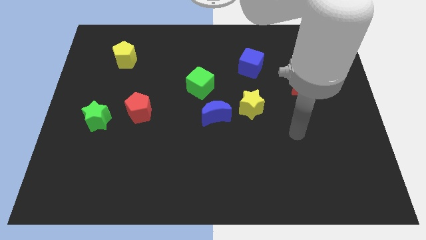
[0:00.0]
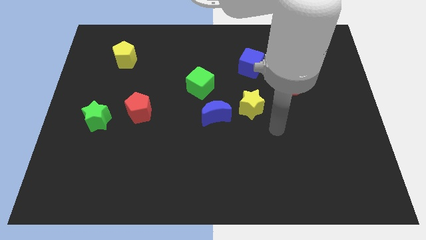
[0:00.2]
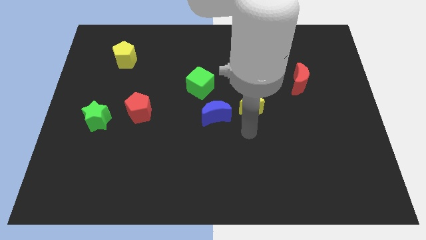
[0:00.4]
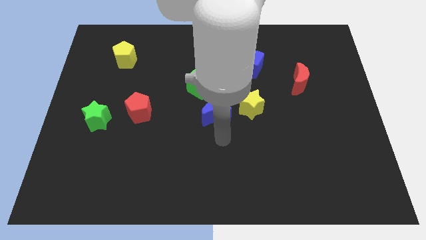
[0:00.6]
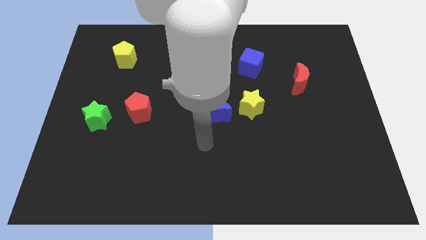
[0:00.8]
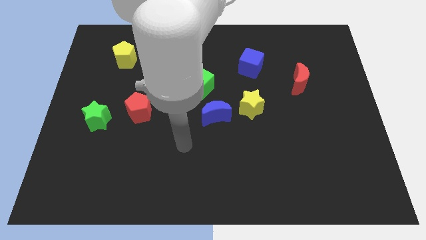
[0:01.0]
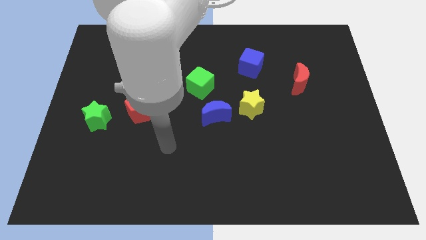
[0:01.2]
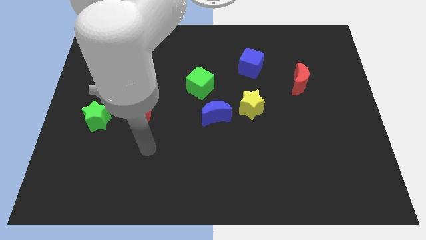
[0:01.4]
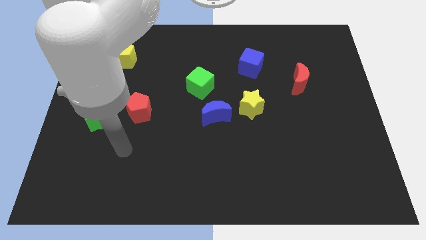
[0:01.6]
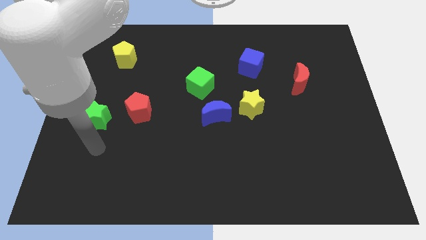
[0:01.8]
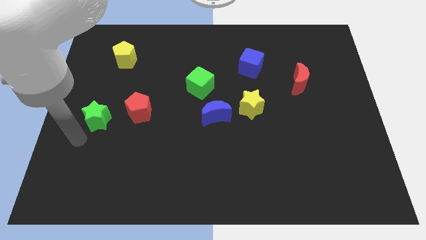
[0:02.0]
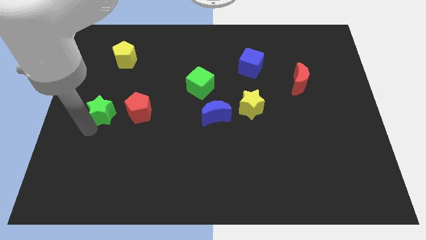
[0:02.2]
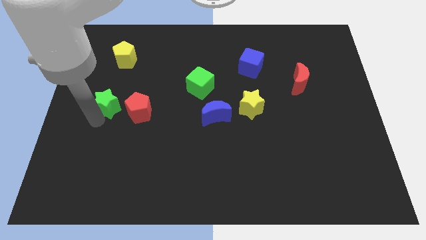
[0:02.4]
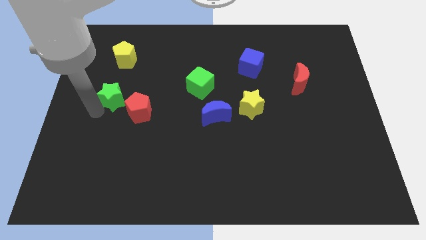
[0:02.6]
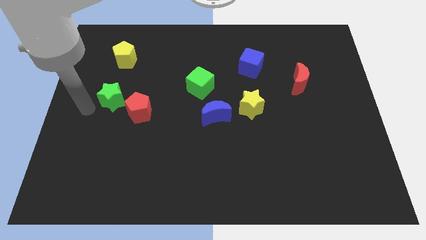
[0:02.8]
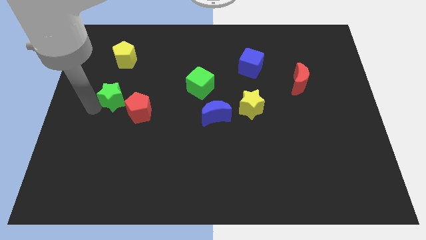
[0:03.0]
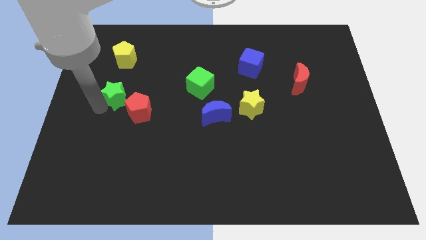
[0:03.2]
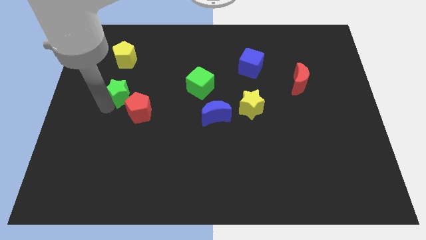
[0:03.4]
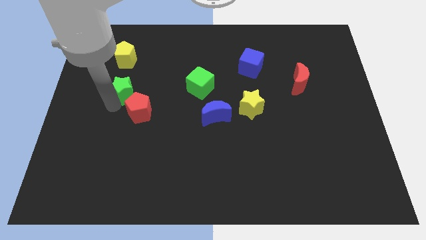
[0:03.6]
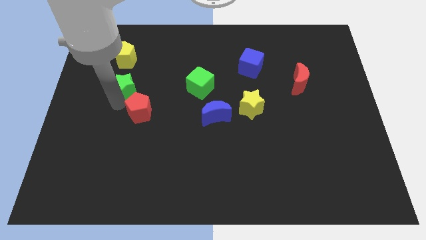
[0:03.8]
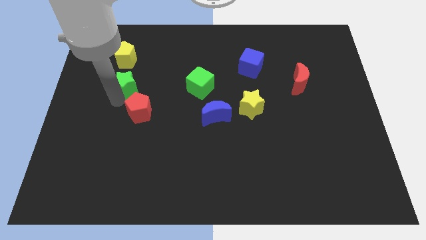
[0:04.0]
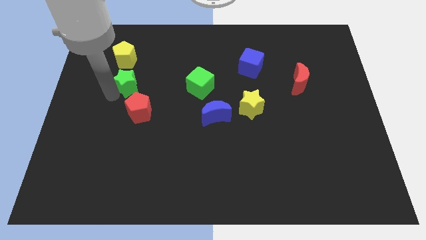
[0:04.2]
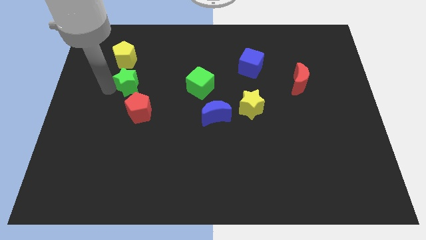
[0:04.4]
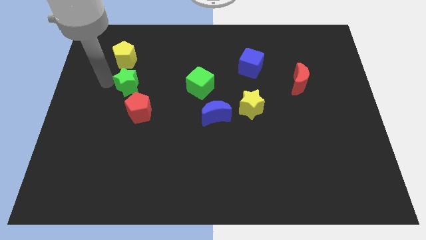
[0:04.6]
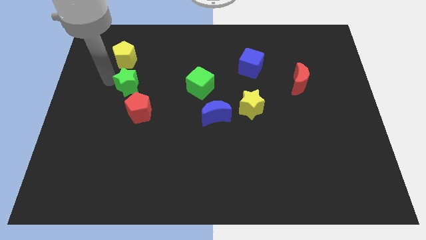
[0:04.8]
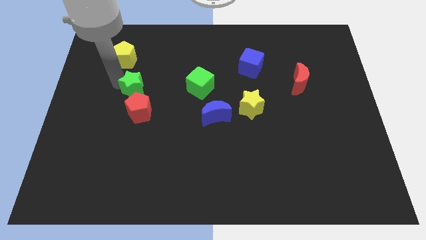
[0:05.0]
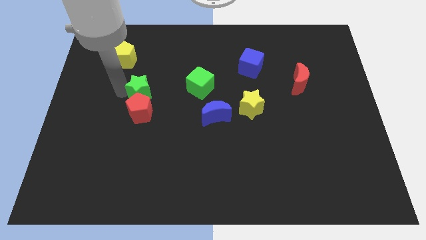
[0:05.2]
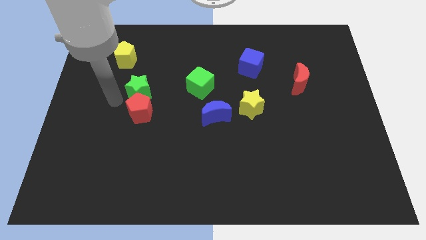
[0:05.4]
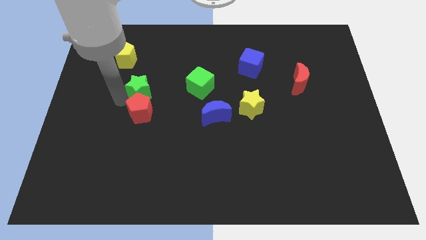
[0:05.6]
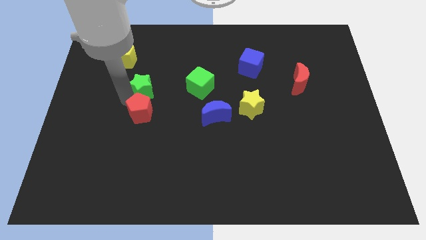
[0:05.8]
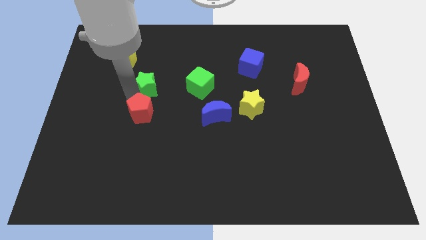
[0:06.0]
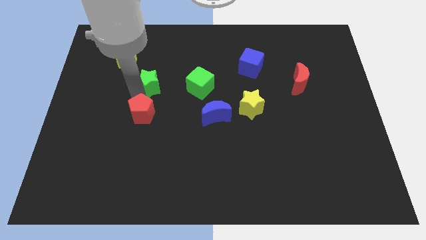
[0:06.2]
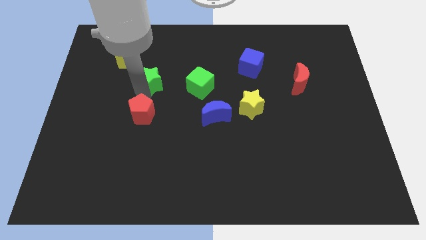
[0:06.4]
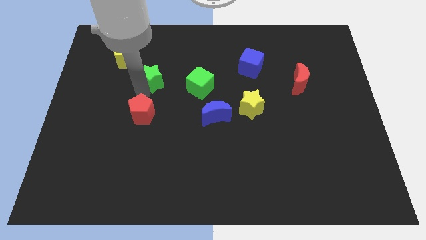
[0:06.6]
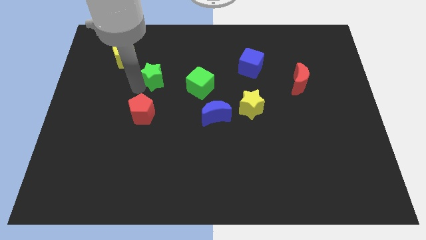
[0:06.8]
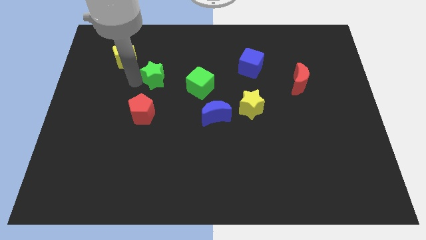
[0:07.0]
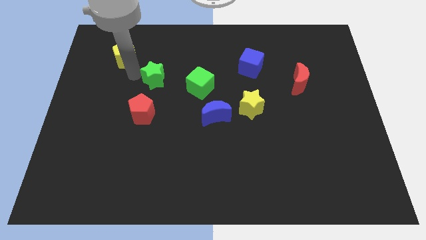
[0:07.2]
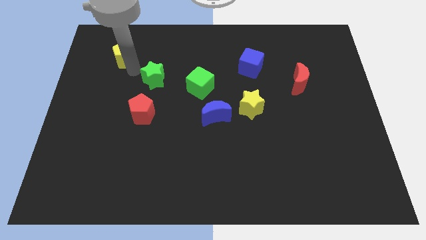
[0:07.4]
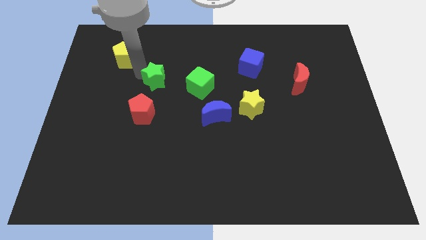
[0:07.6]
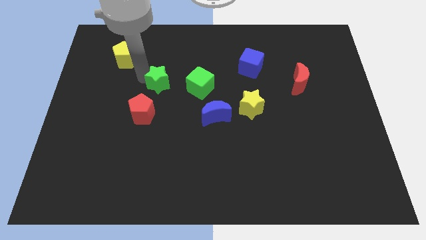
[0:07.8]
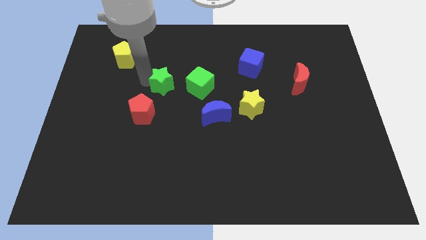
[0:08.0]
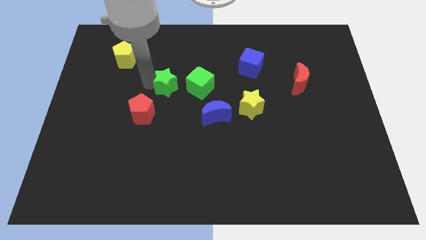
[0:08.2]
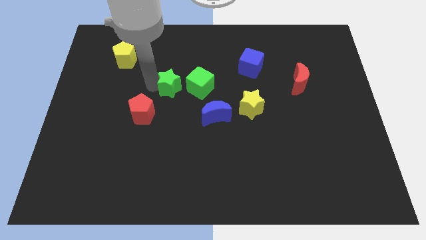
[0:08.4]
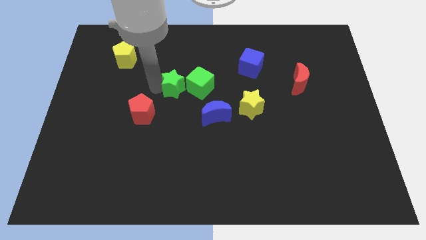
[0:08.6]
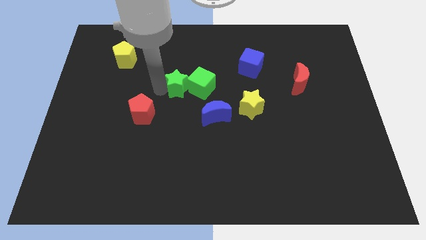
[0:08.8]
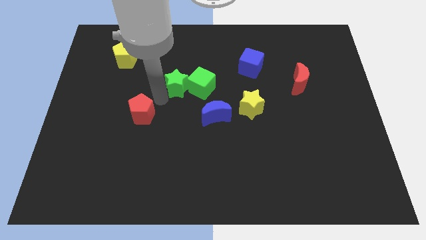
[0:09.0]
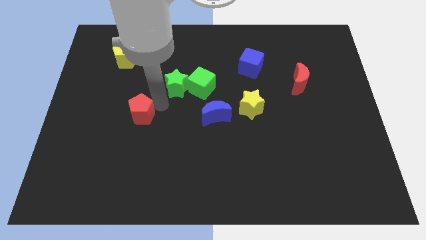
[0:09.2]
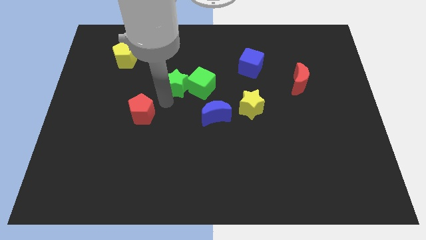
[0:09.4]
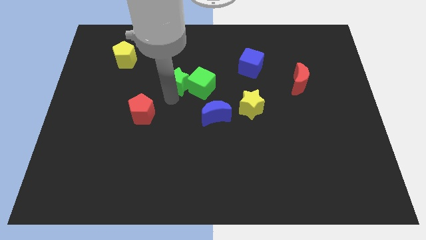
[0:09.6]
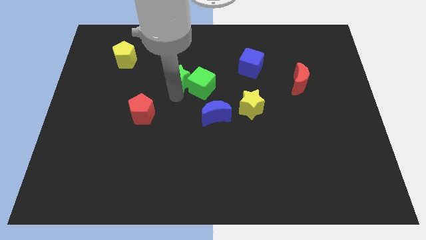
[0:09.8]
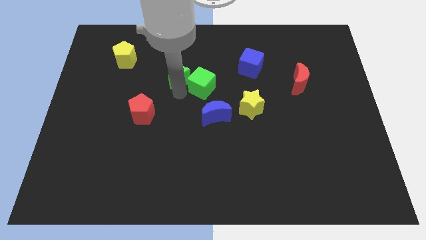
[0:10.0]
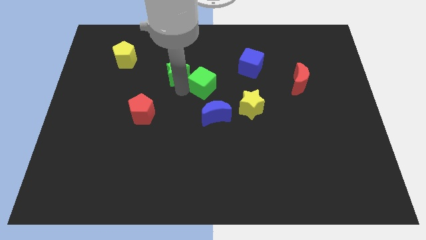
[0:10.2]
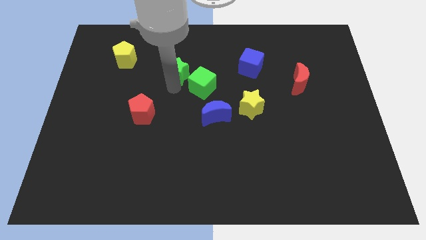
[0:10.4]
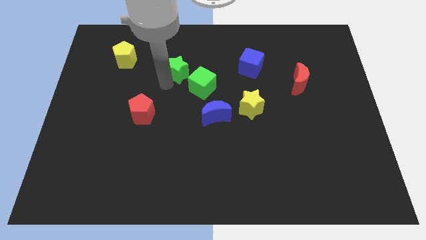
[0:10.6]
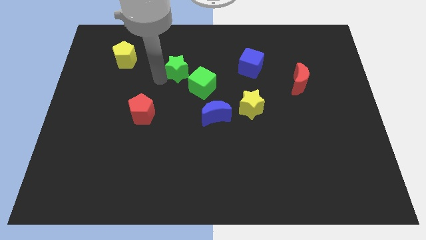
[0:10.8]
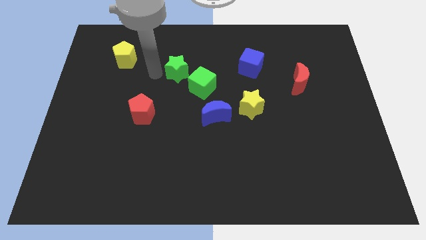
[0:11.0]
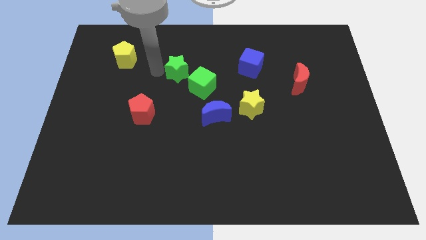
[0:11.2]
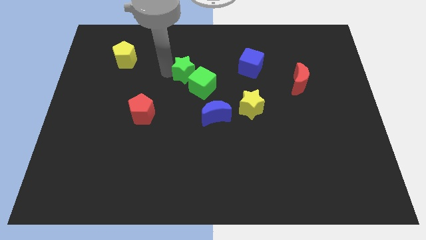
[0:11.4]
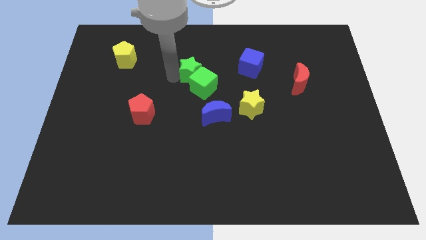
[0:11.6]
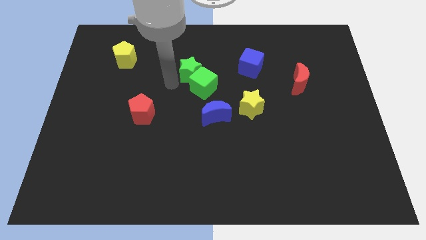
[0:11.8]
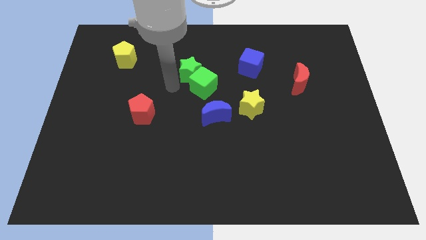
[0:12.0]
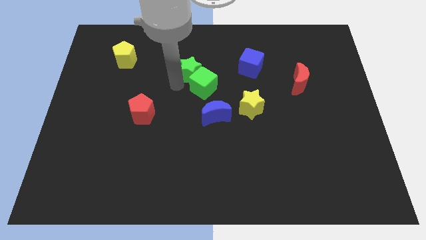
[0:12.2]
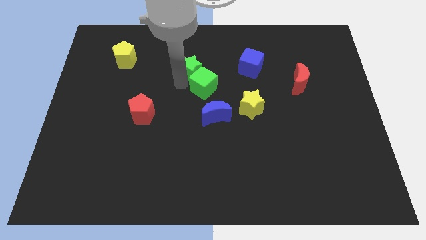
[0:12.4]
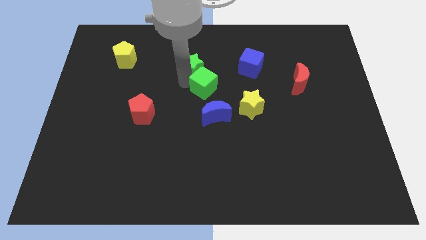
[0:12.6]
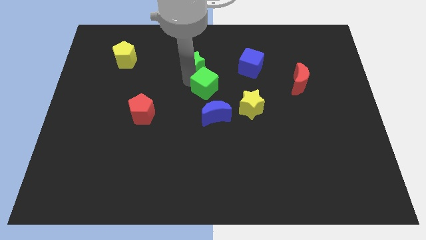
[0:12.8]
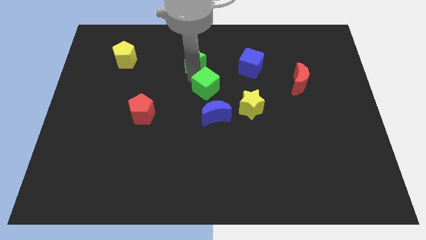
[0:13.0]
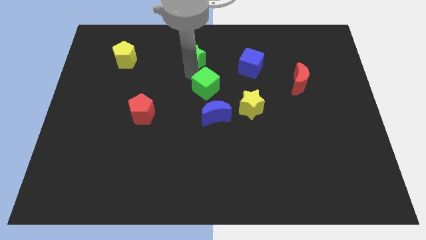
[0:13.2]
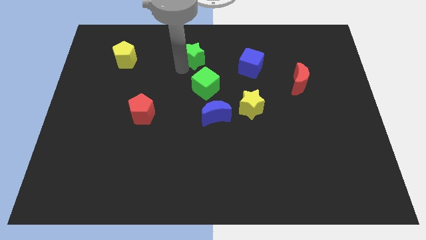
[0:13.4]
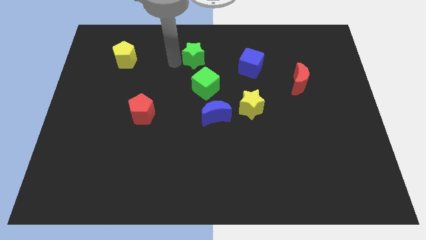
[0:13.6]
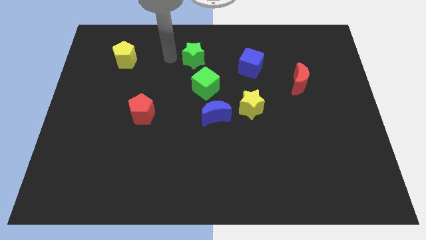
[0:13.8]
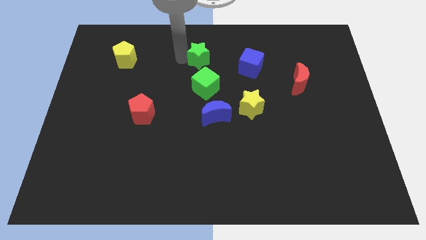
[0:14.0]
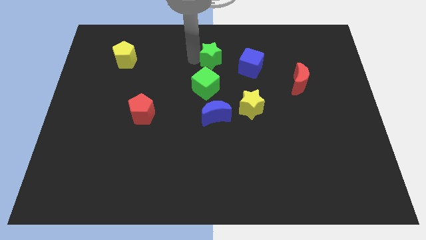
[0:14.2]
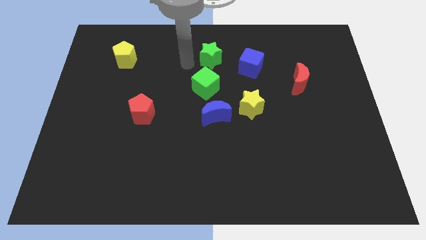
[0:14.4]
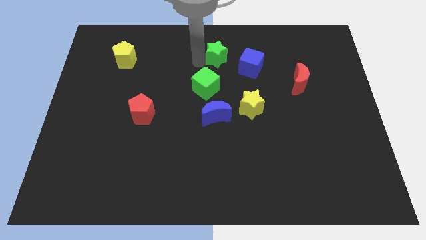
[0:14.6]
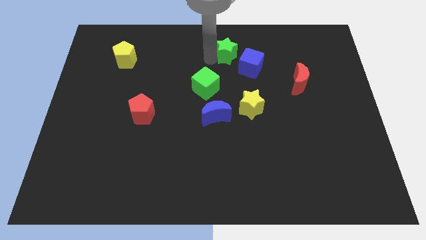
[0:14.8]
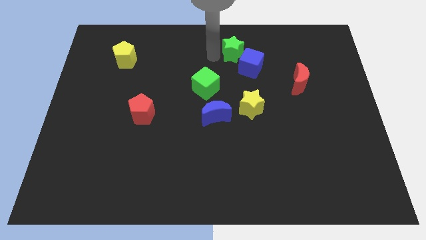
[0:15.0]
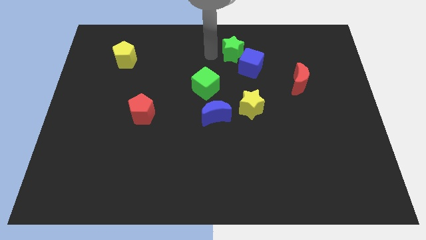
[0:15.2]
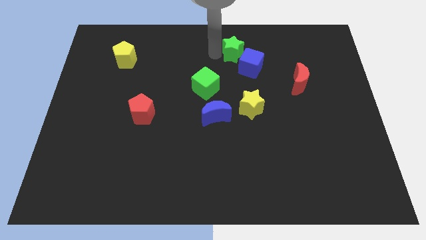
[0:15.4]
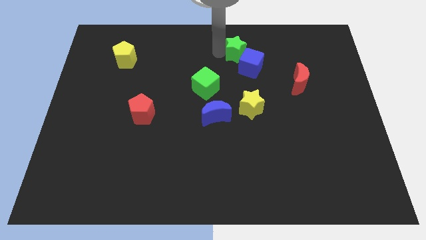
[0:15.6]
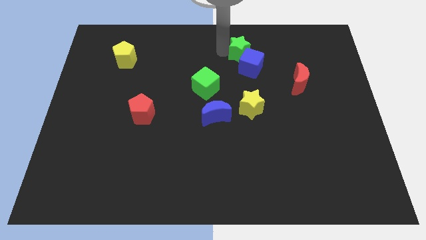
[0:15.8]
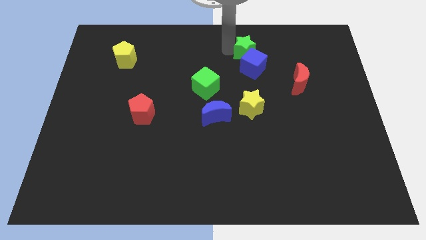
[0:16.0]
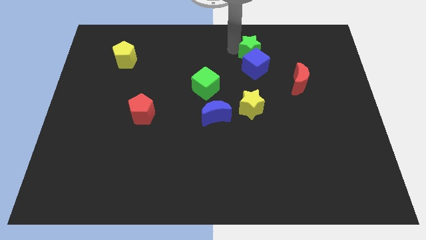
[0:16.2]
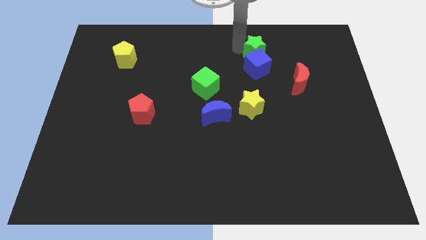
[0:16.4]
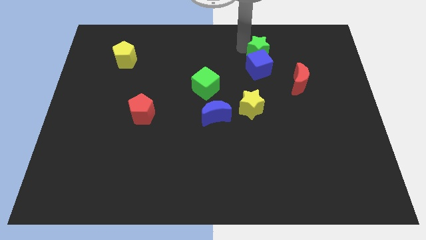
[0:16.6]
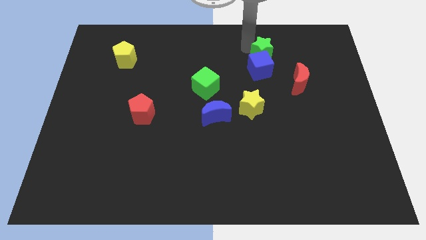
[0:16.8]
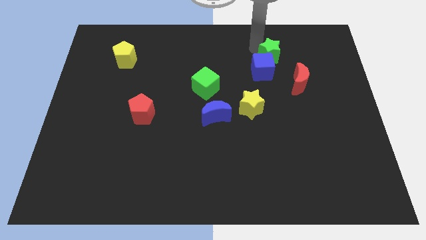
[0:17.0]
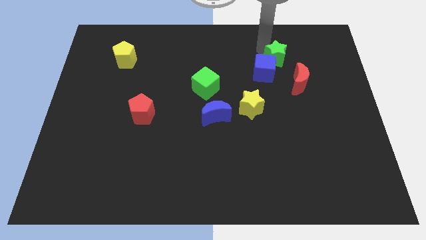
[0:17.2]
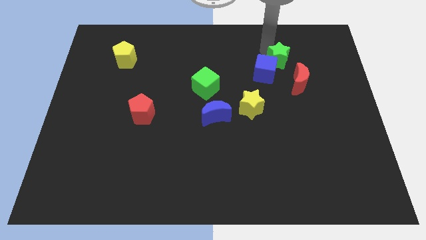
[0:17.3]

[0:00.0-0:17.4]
slide the green star to the right side of the blue cube
